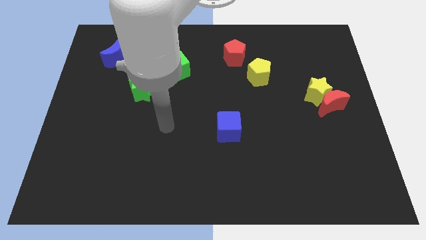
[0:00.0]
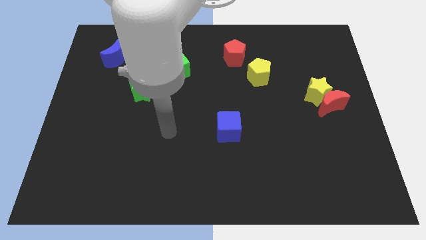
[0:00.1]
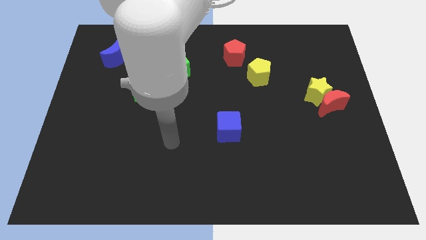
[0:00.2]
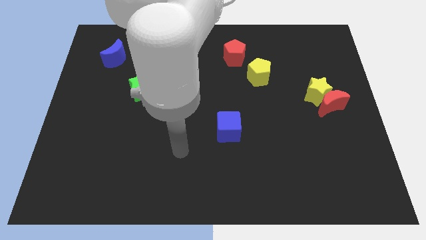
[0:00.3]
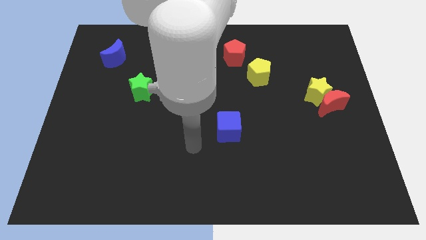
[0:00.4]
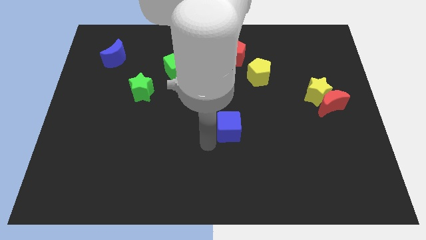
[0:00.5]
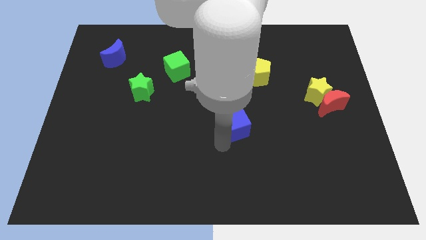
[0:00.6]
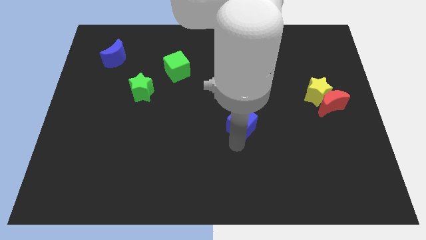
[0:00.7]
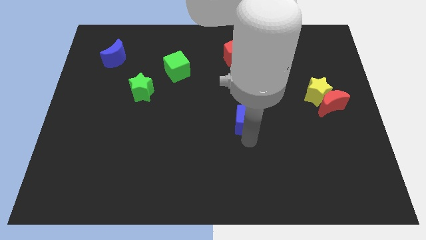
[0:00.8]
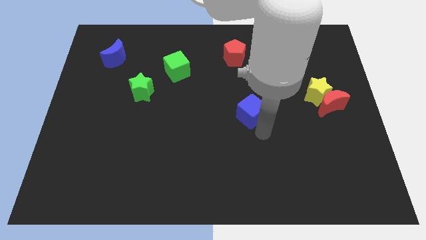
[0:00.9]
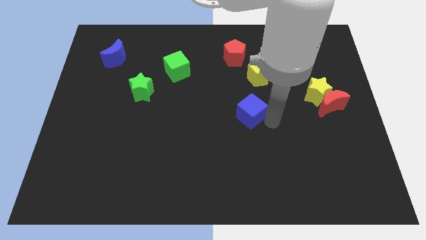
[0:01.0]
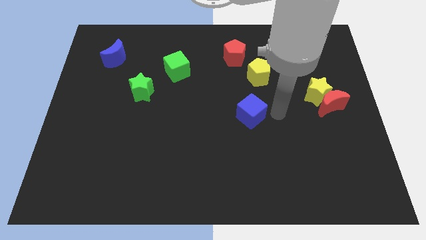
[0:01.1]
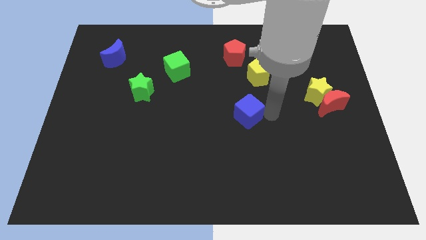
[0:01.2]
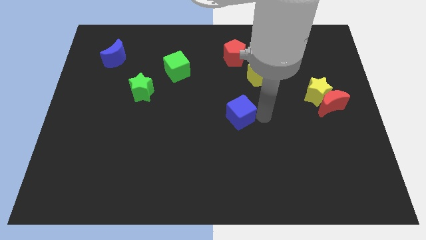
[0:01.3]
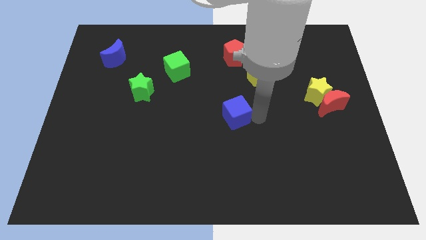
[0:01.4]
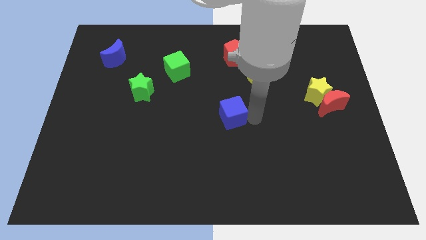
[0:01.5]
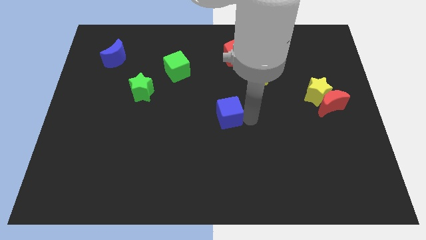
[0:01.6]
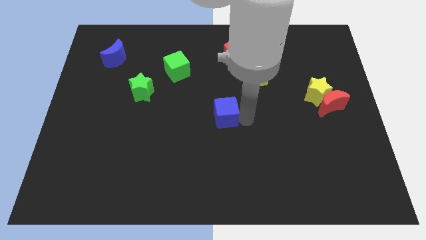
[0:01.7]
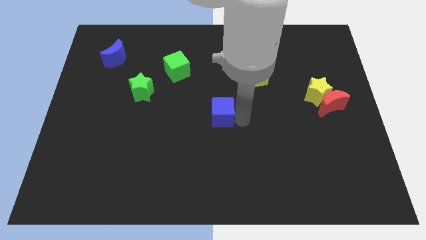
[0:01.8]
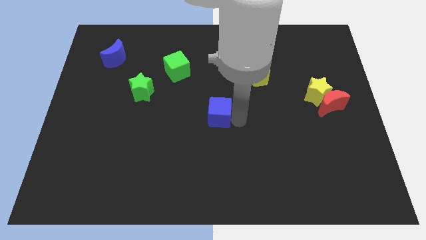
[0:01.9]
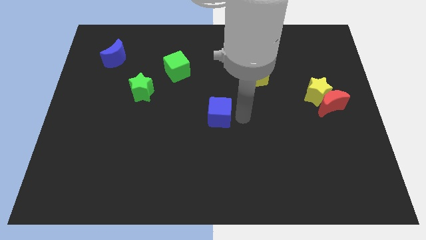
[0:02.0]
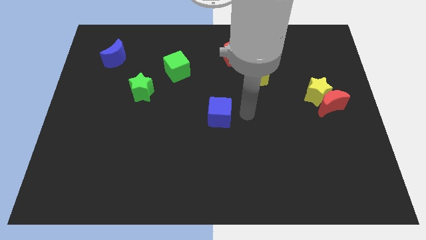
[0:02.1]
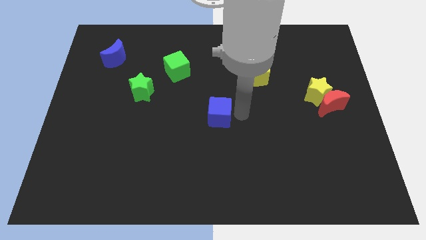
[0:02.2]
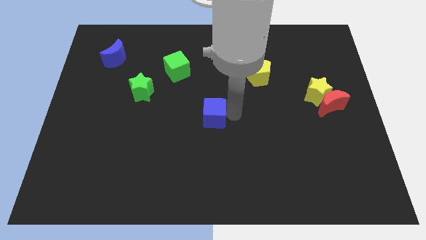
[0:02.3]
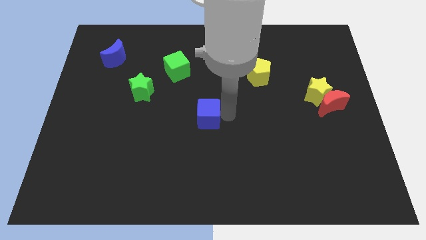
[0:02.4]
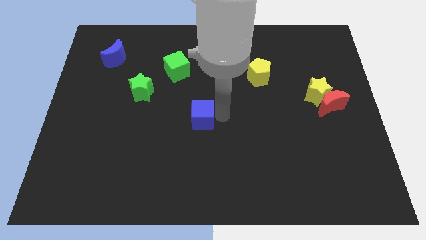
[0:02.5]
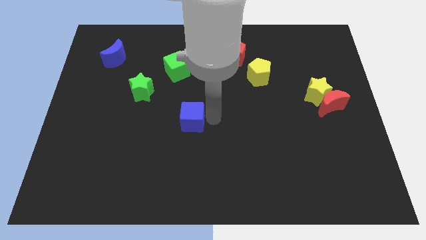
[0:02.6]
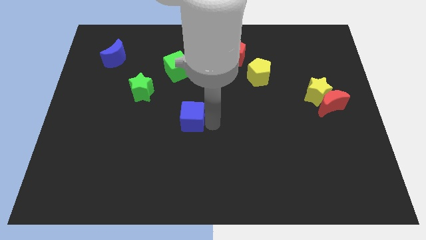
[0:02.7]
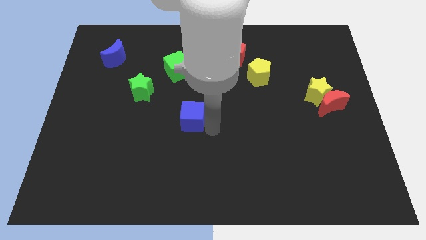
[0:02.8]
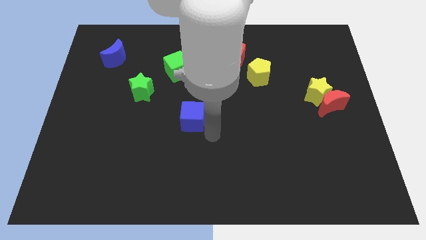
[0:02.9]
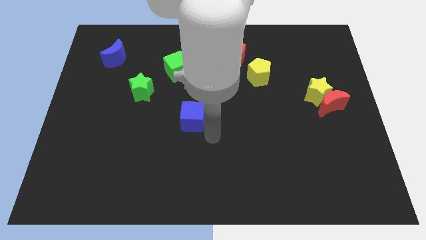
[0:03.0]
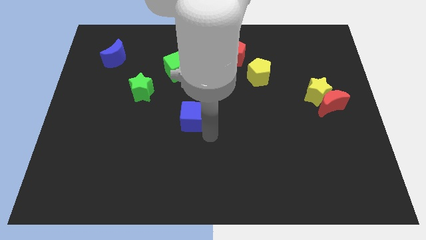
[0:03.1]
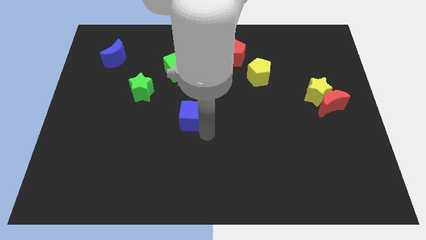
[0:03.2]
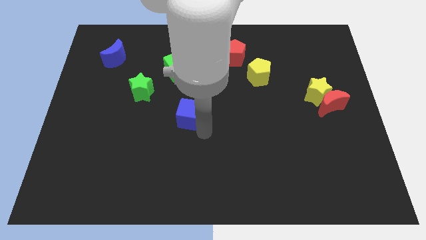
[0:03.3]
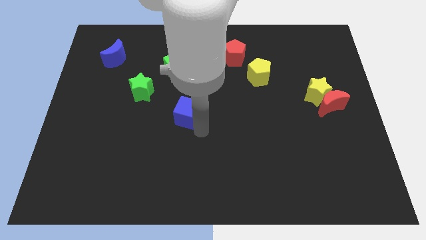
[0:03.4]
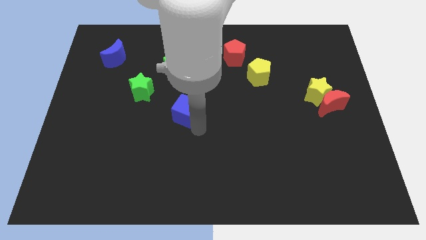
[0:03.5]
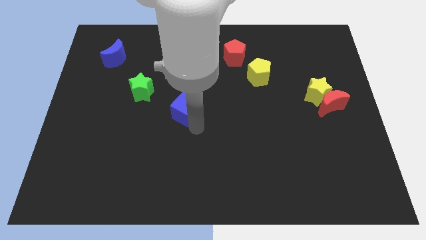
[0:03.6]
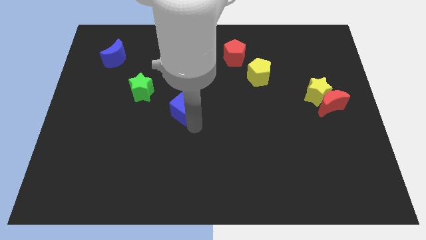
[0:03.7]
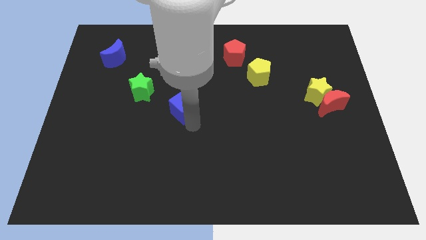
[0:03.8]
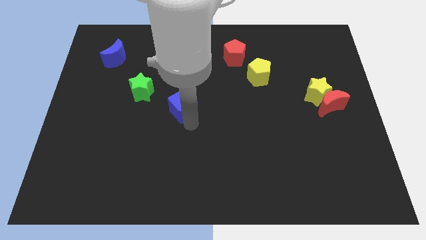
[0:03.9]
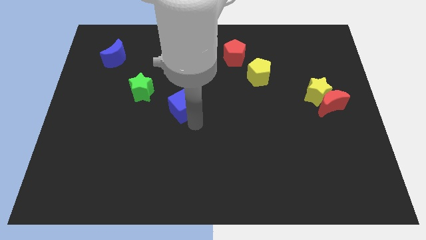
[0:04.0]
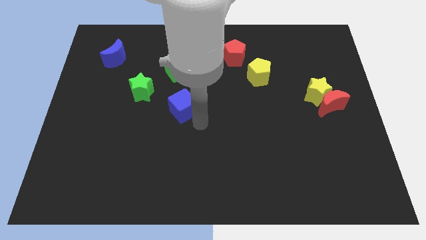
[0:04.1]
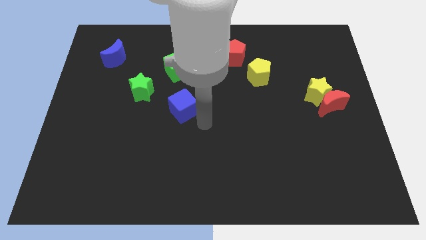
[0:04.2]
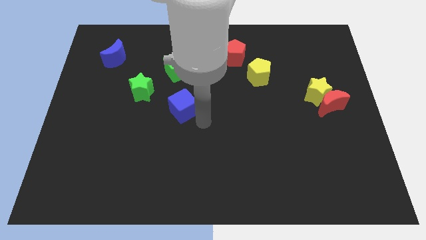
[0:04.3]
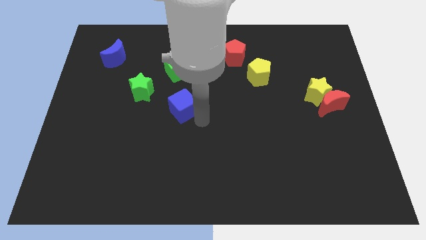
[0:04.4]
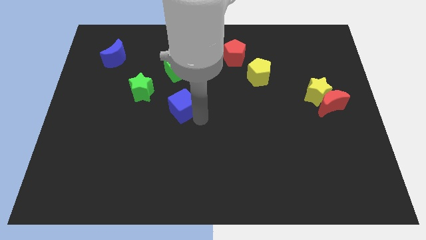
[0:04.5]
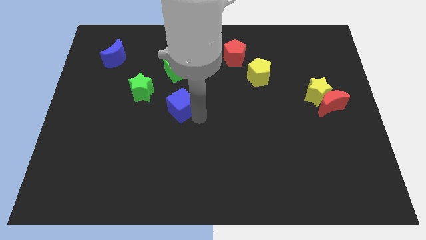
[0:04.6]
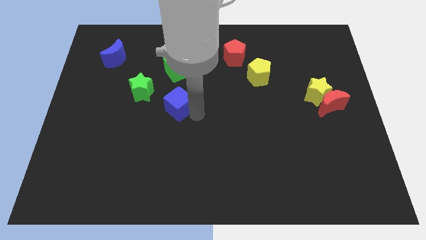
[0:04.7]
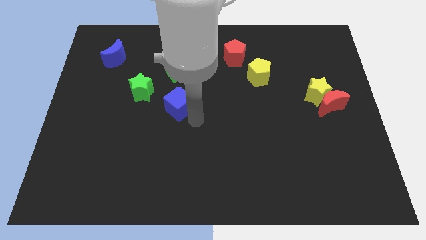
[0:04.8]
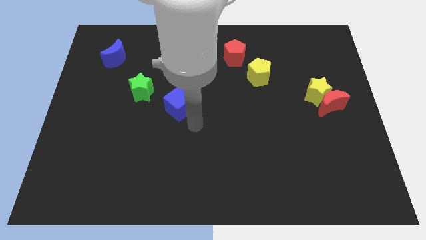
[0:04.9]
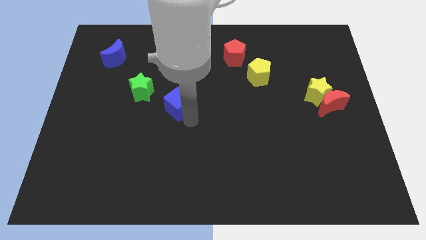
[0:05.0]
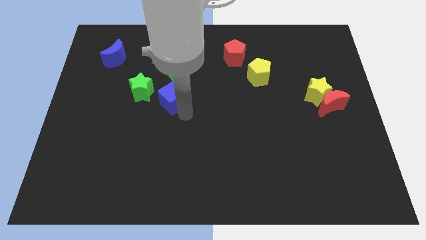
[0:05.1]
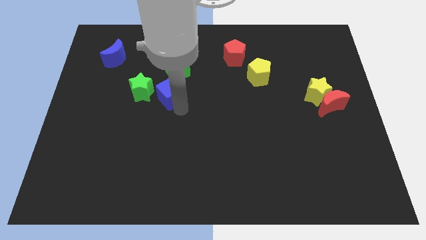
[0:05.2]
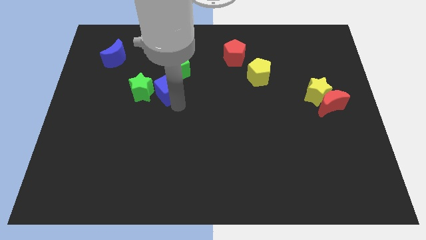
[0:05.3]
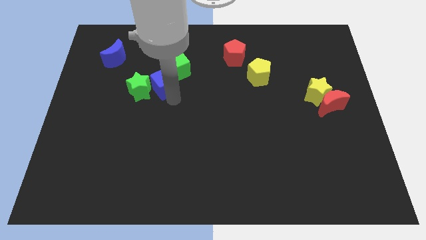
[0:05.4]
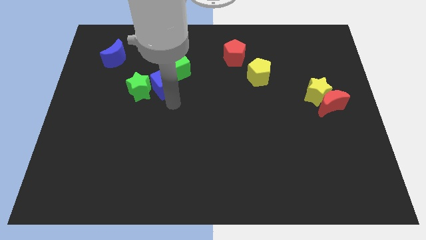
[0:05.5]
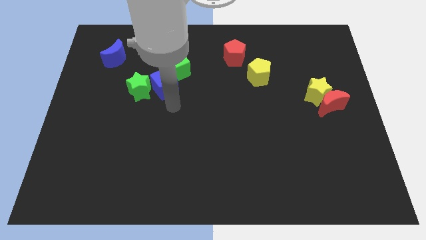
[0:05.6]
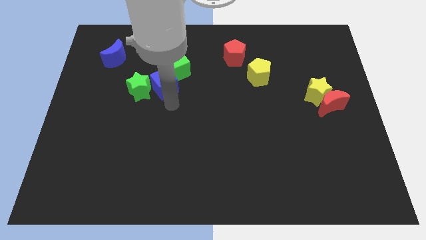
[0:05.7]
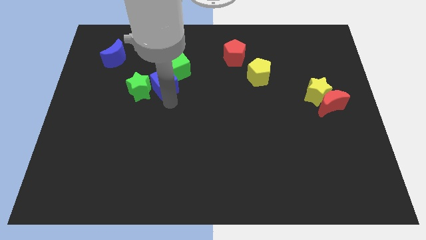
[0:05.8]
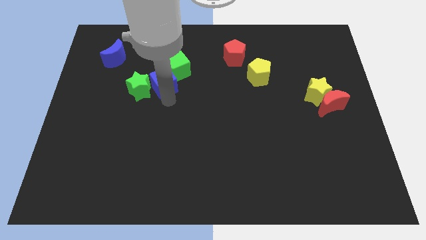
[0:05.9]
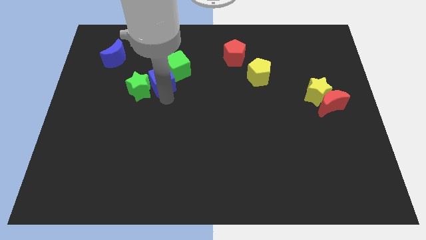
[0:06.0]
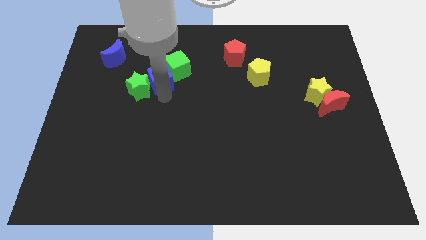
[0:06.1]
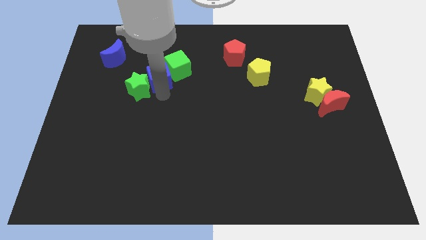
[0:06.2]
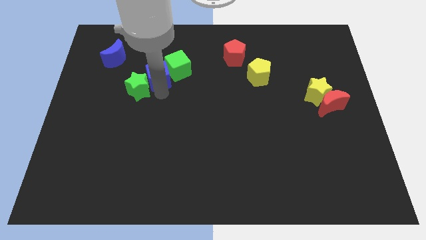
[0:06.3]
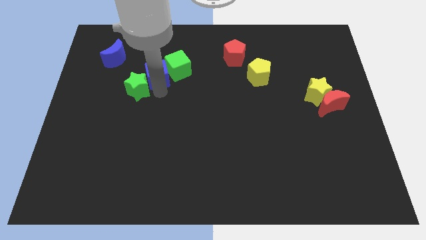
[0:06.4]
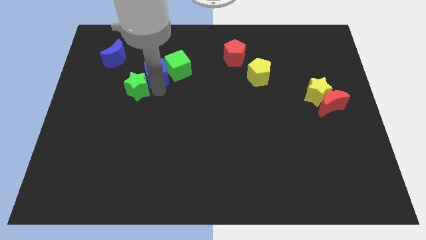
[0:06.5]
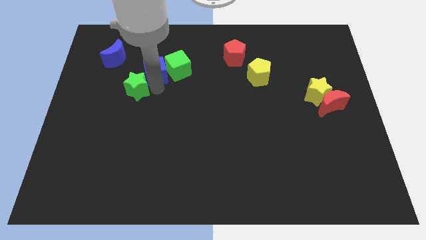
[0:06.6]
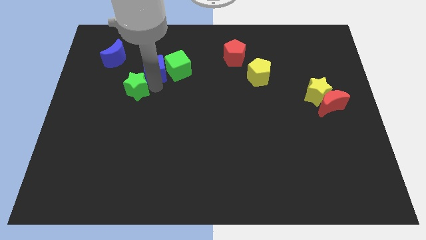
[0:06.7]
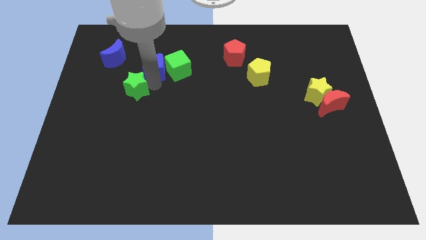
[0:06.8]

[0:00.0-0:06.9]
push the blue cube to the right side of the blue moon

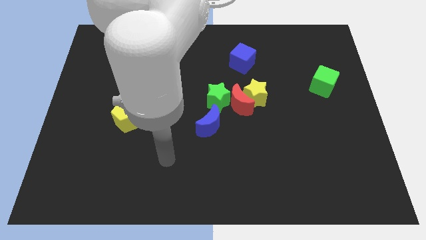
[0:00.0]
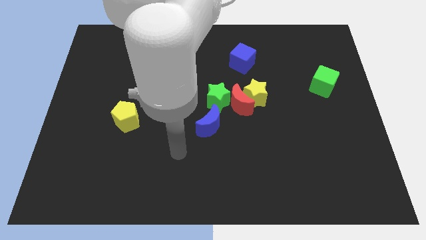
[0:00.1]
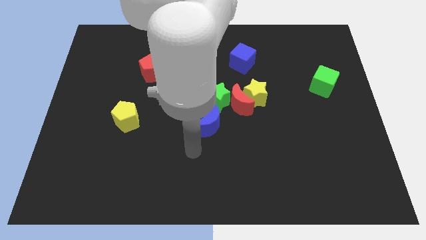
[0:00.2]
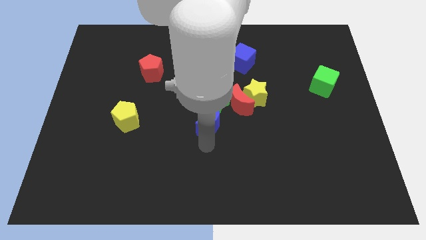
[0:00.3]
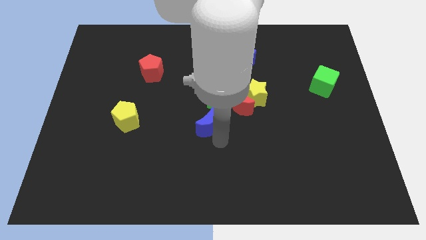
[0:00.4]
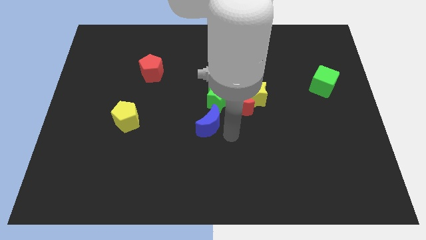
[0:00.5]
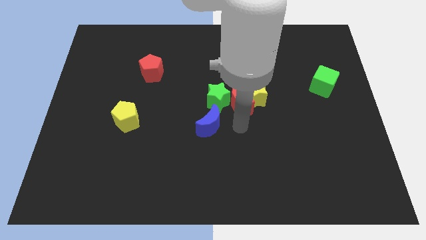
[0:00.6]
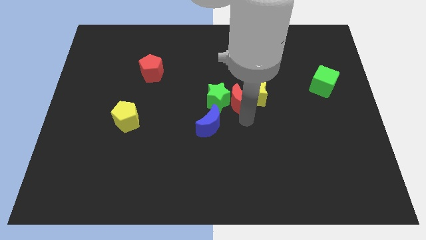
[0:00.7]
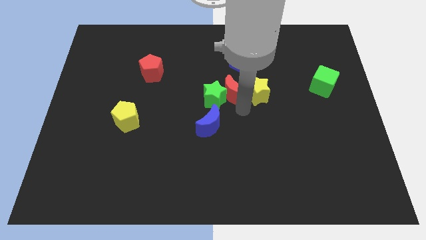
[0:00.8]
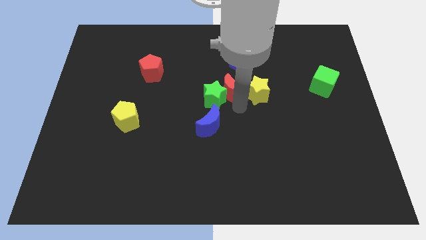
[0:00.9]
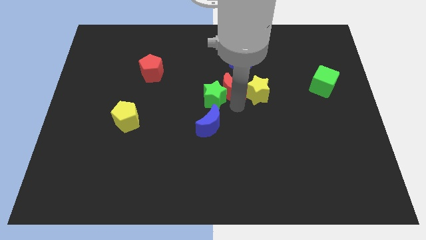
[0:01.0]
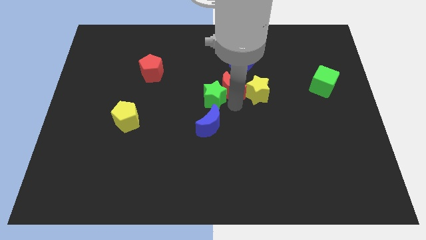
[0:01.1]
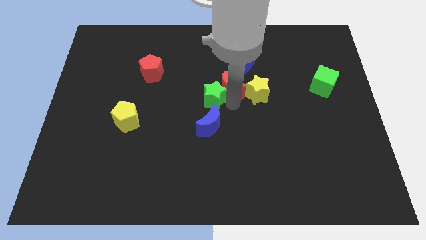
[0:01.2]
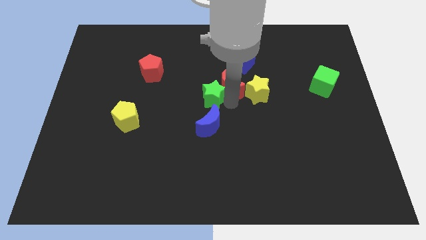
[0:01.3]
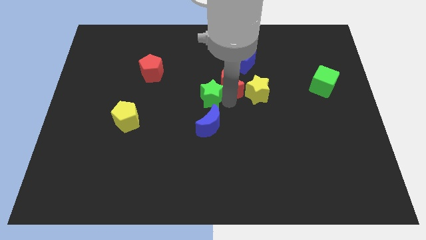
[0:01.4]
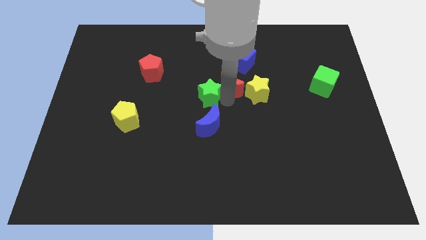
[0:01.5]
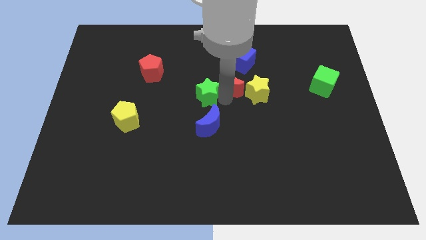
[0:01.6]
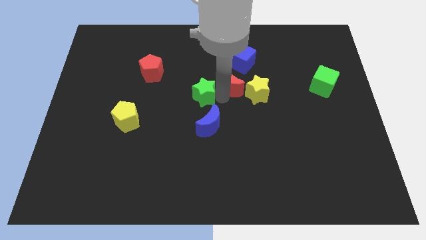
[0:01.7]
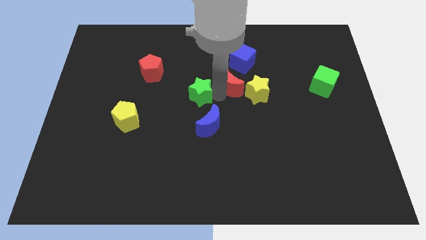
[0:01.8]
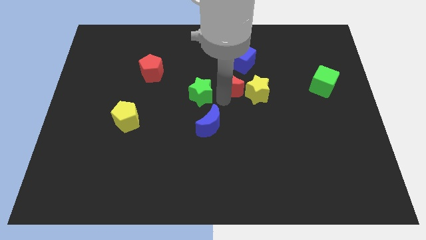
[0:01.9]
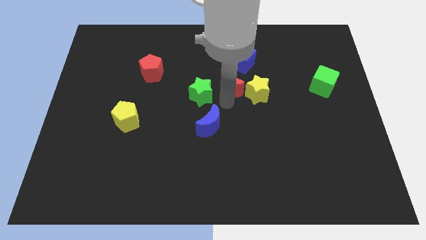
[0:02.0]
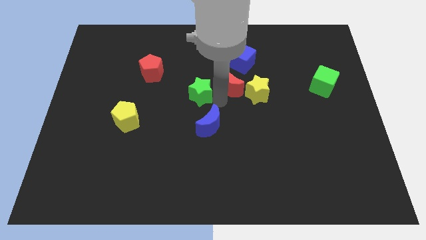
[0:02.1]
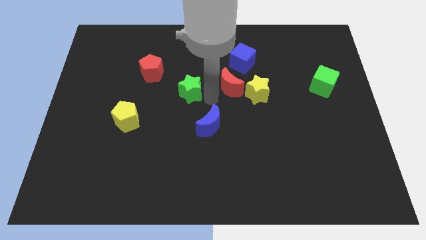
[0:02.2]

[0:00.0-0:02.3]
put the green star to the bottom right of the red pentagon
